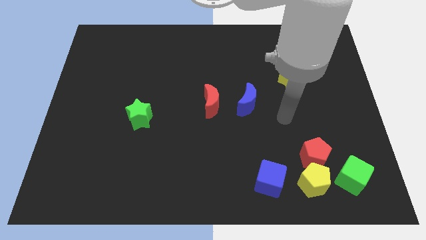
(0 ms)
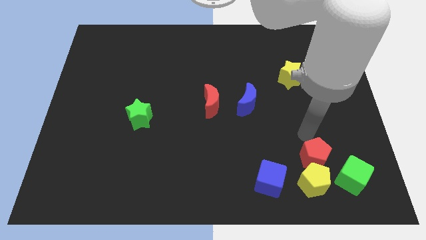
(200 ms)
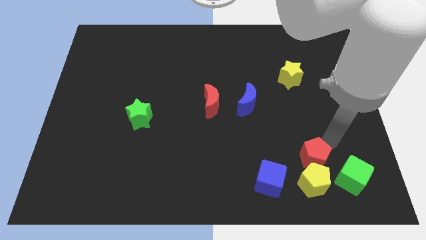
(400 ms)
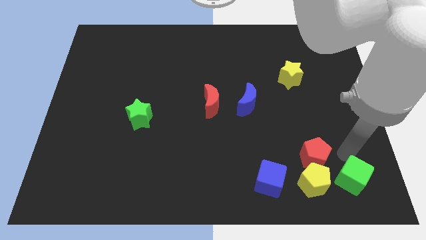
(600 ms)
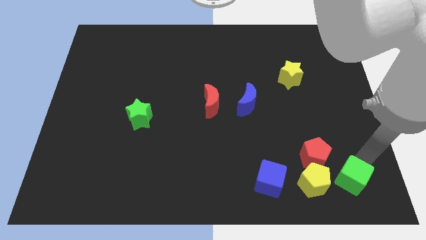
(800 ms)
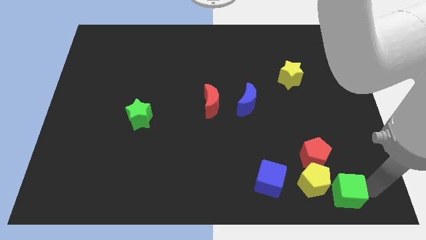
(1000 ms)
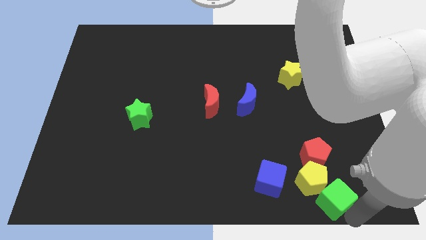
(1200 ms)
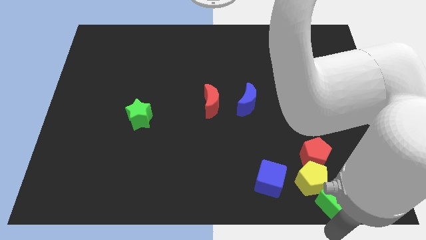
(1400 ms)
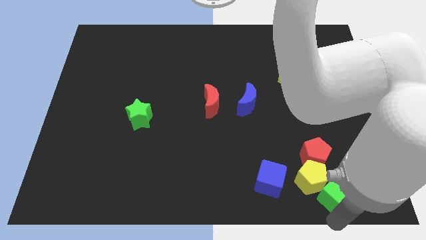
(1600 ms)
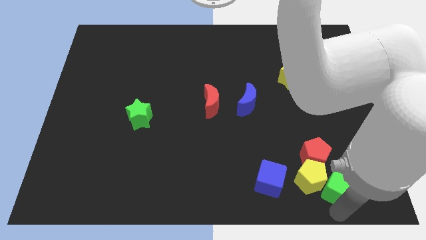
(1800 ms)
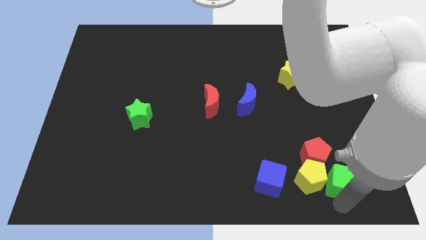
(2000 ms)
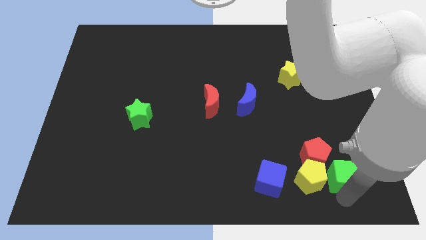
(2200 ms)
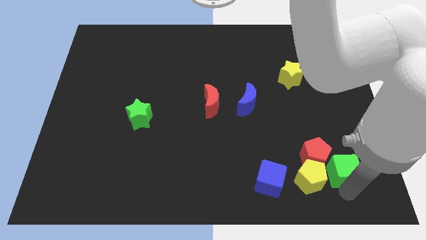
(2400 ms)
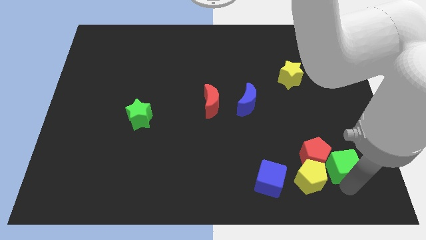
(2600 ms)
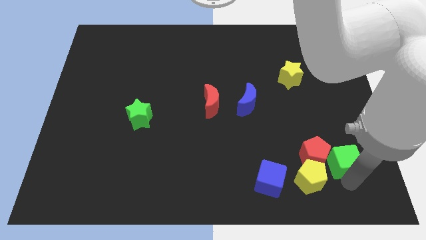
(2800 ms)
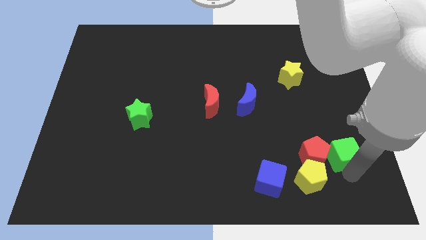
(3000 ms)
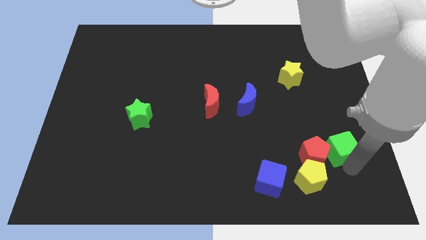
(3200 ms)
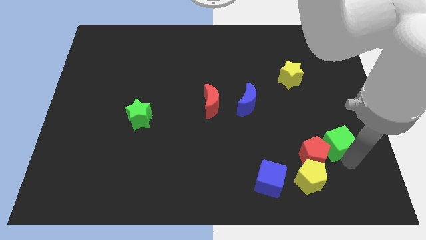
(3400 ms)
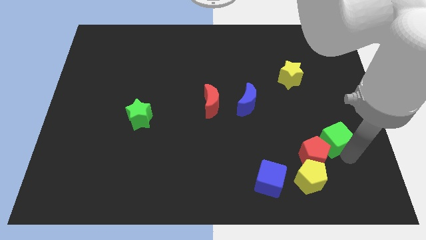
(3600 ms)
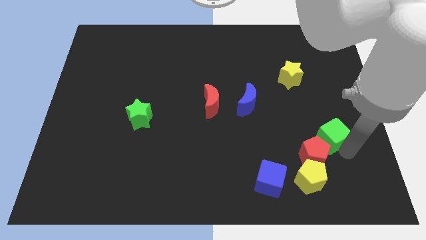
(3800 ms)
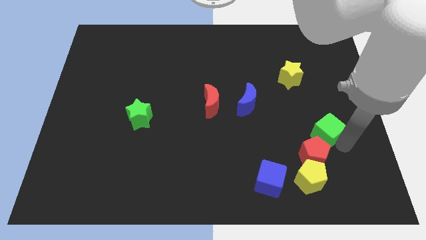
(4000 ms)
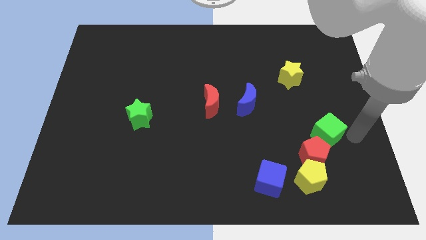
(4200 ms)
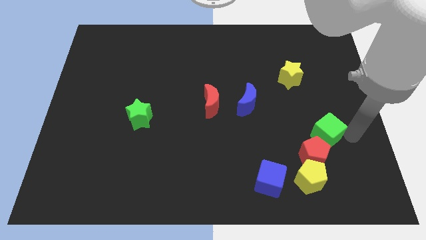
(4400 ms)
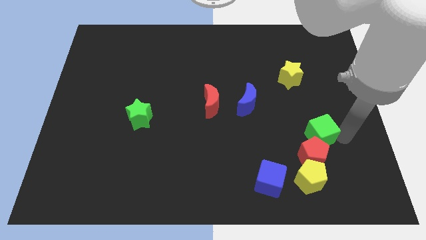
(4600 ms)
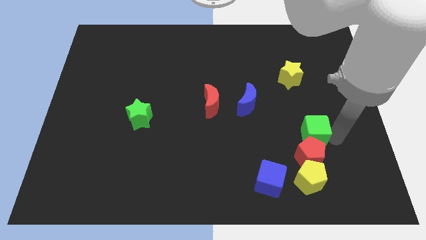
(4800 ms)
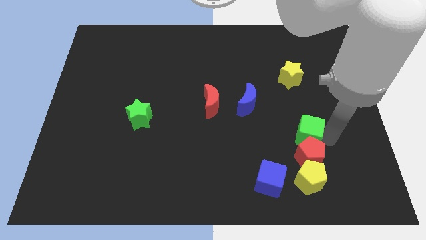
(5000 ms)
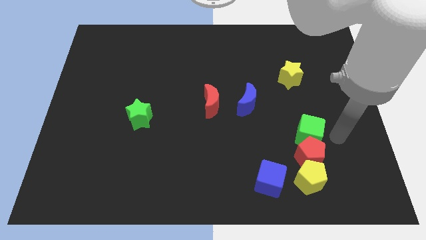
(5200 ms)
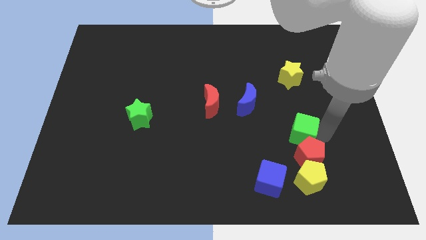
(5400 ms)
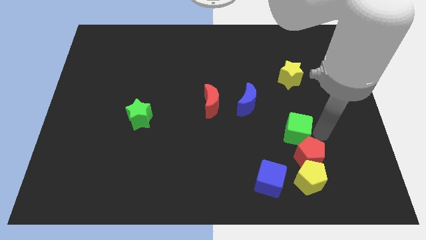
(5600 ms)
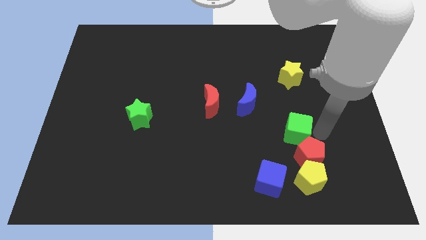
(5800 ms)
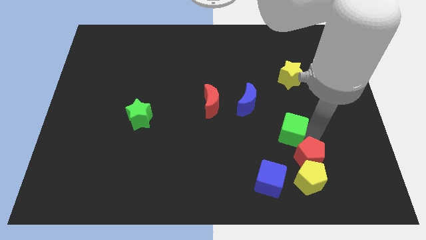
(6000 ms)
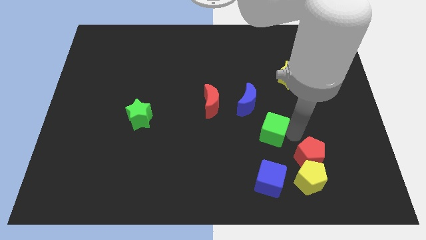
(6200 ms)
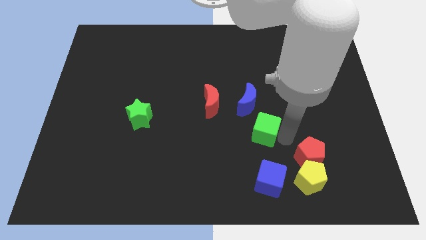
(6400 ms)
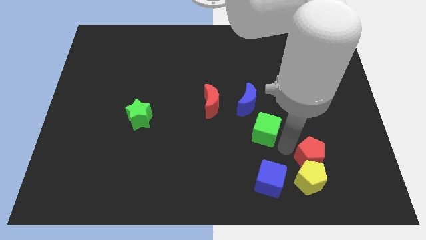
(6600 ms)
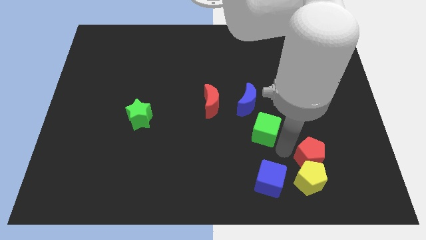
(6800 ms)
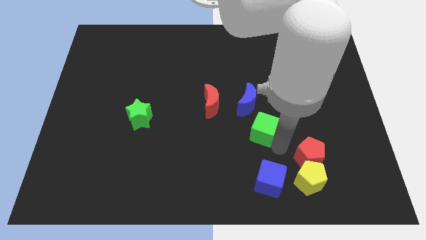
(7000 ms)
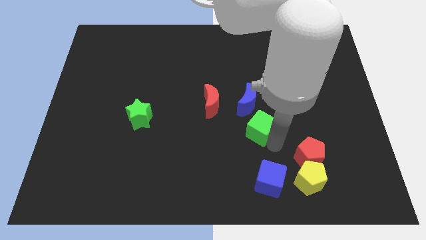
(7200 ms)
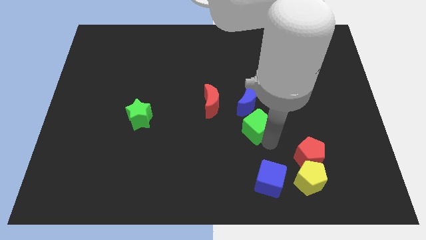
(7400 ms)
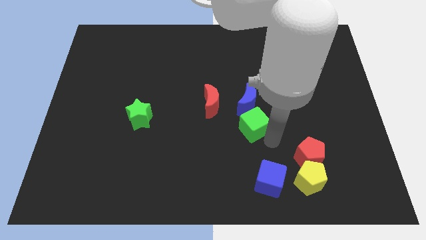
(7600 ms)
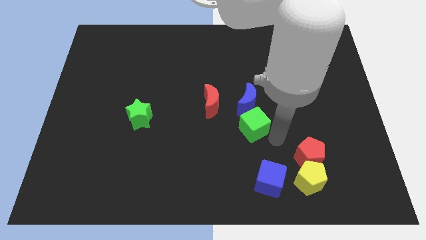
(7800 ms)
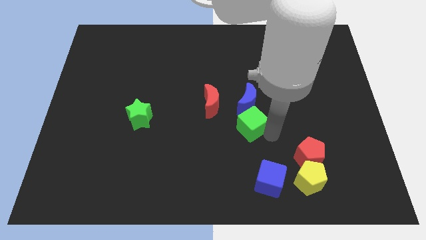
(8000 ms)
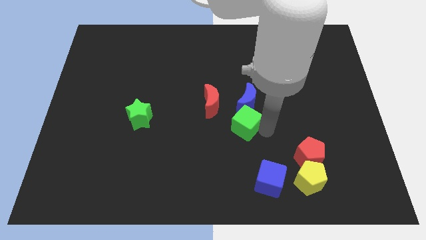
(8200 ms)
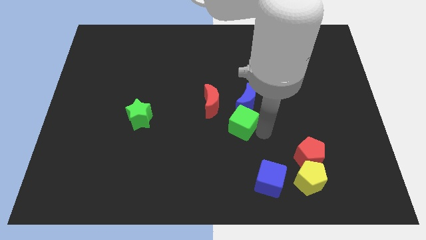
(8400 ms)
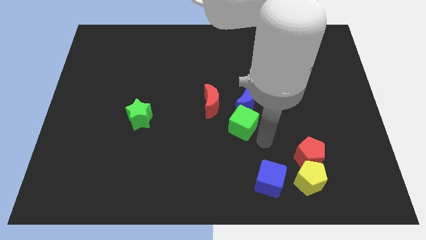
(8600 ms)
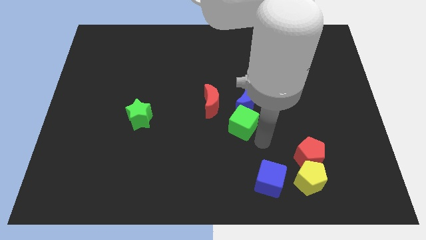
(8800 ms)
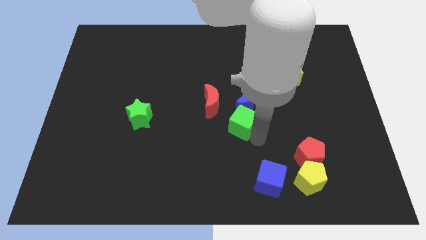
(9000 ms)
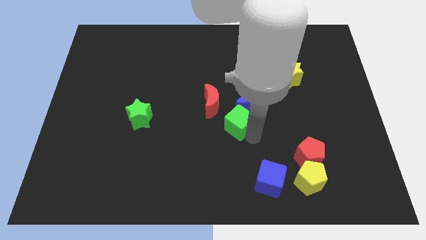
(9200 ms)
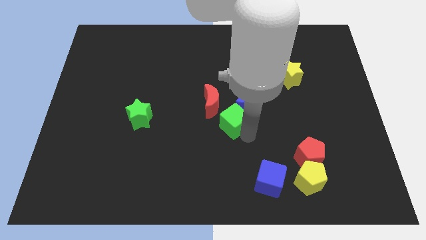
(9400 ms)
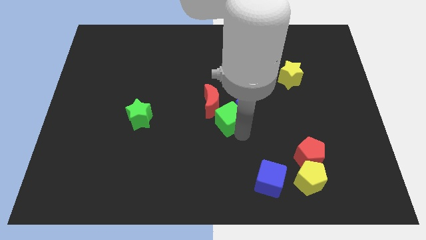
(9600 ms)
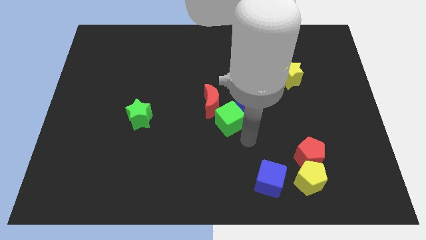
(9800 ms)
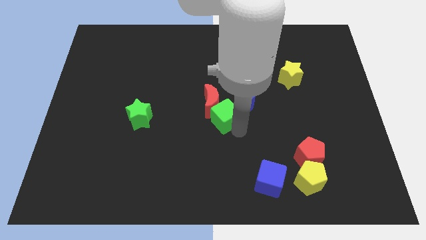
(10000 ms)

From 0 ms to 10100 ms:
push the green cube close to the red moon

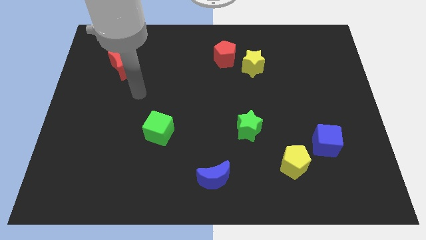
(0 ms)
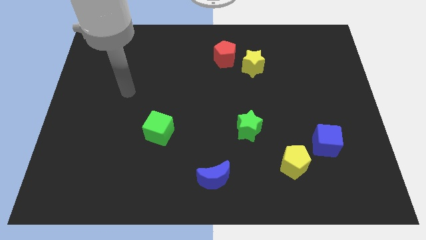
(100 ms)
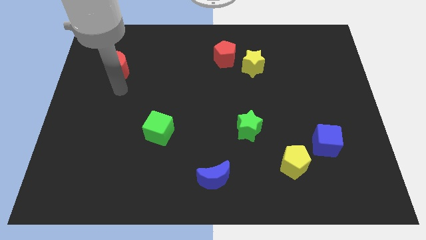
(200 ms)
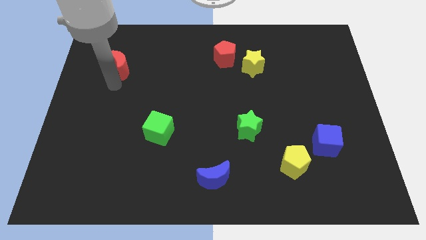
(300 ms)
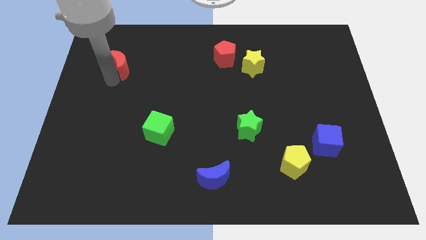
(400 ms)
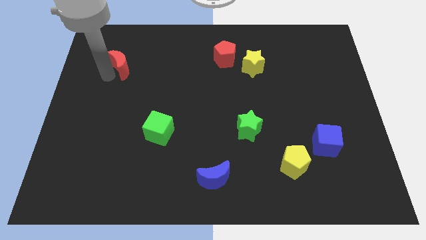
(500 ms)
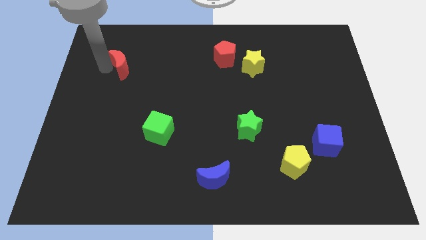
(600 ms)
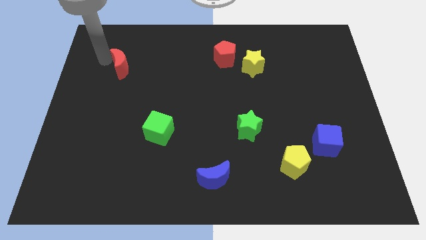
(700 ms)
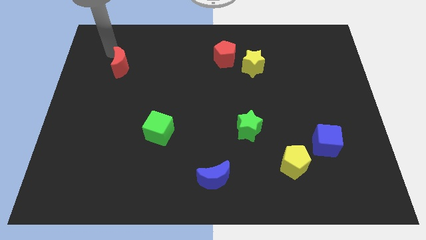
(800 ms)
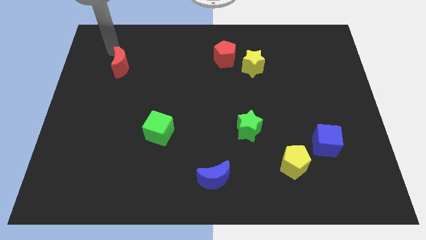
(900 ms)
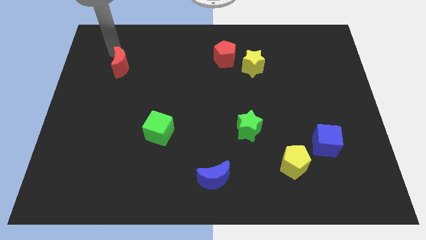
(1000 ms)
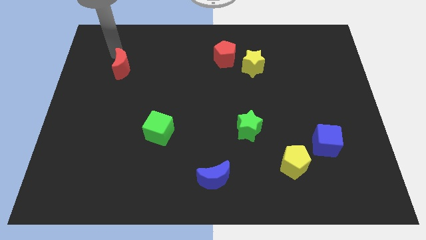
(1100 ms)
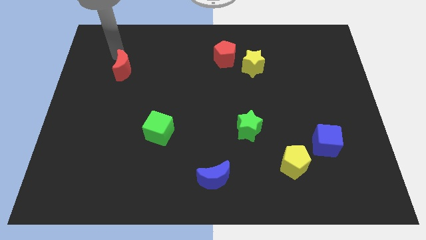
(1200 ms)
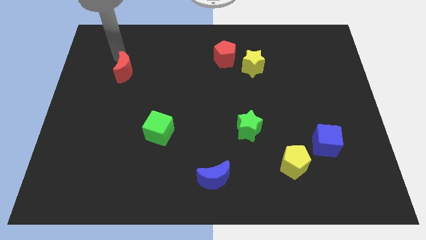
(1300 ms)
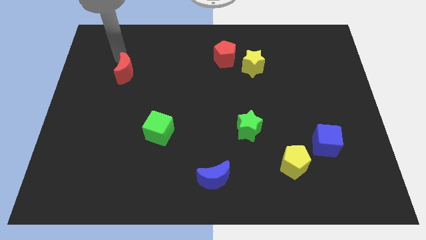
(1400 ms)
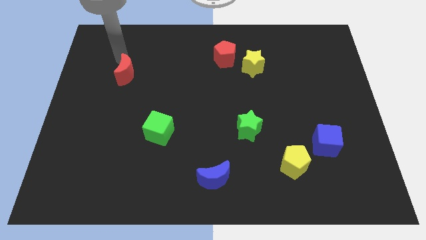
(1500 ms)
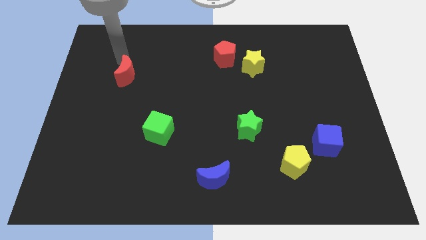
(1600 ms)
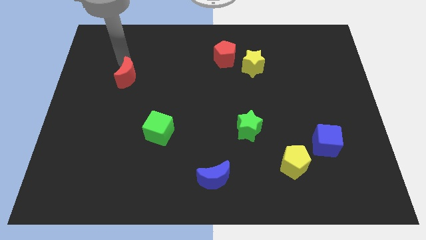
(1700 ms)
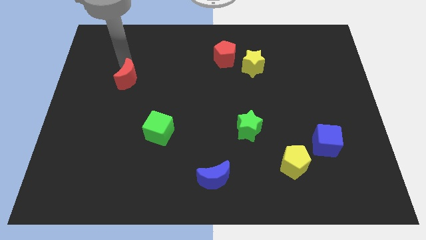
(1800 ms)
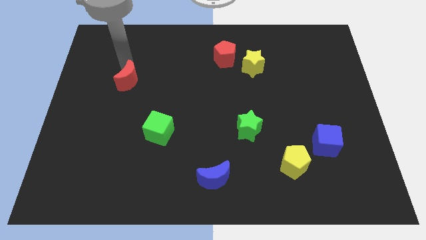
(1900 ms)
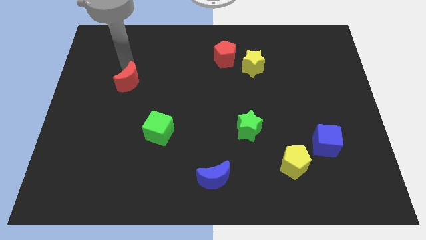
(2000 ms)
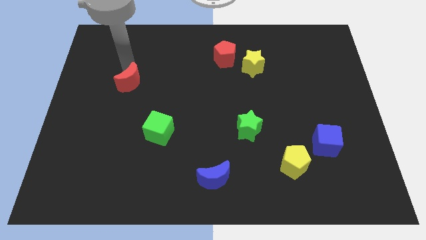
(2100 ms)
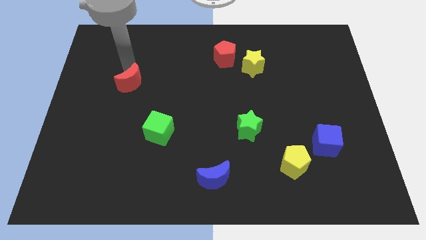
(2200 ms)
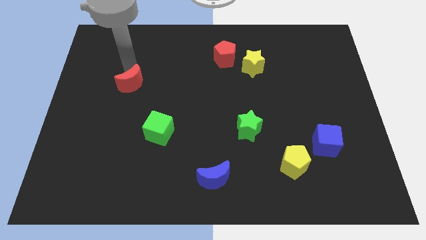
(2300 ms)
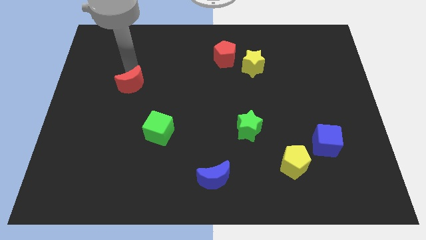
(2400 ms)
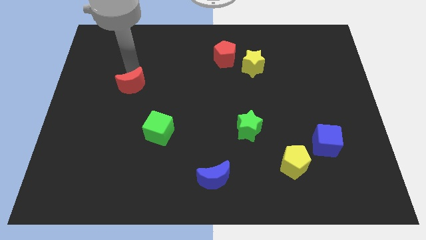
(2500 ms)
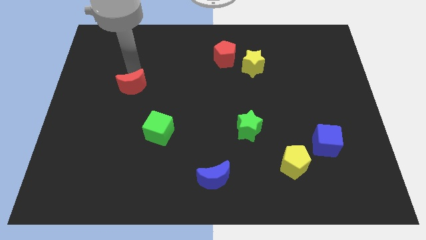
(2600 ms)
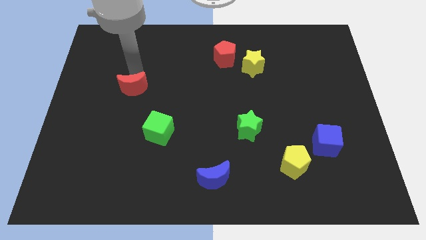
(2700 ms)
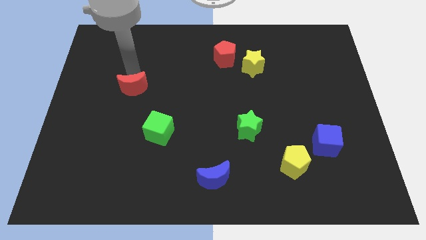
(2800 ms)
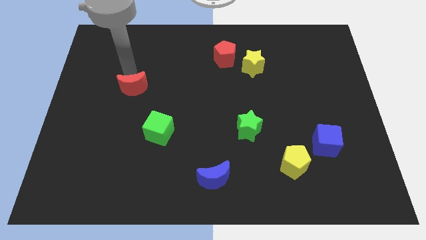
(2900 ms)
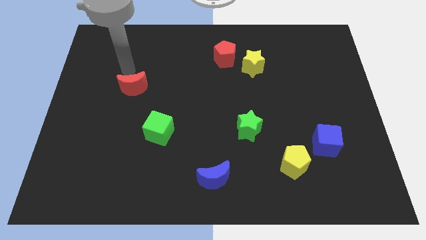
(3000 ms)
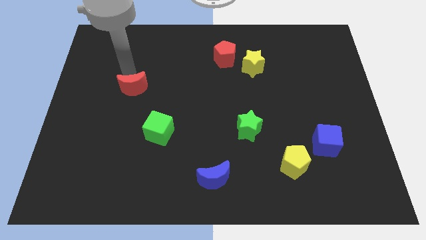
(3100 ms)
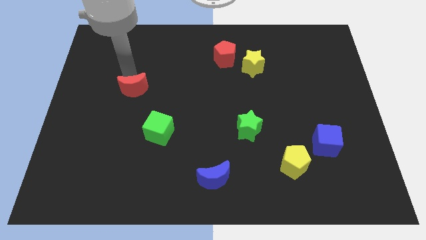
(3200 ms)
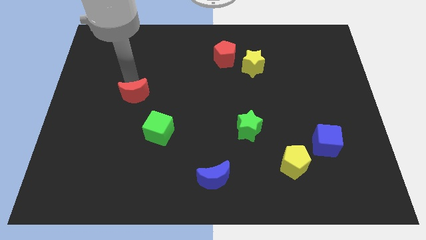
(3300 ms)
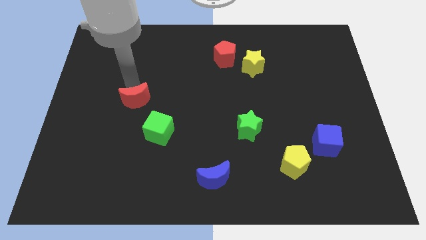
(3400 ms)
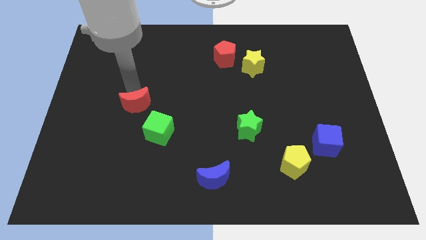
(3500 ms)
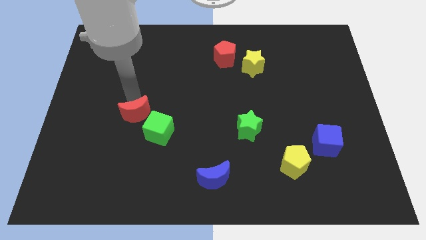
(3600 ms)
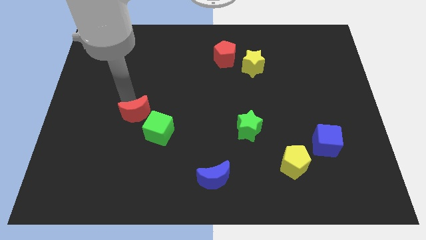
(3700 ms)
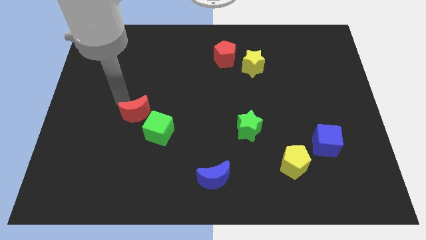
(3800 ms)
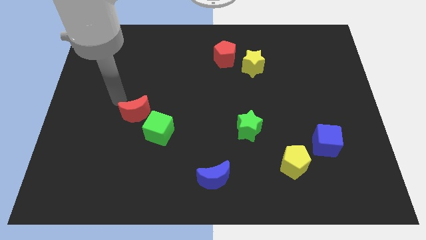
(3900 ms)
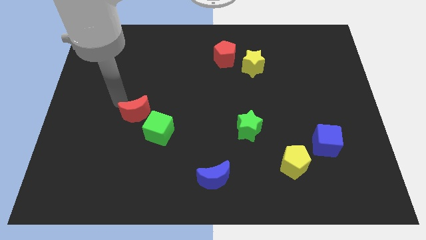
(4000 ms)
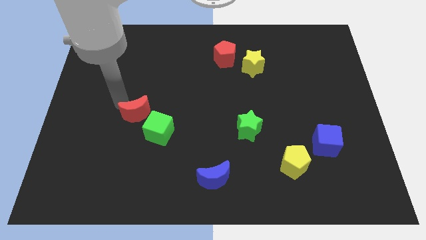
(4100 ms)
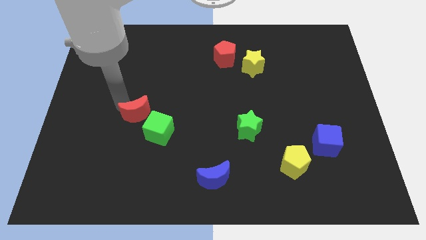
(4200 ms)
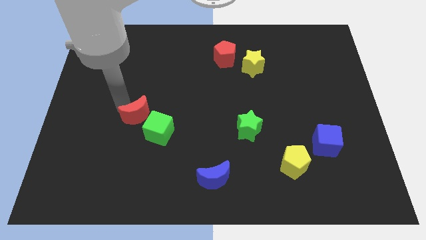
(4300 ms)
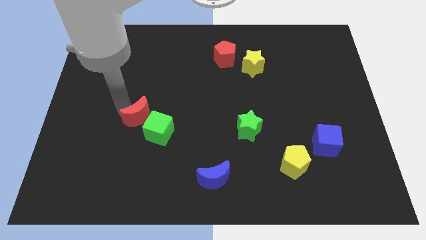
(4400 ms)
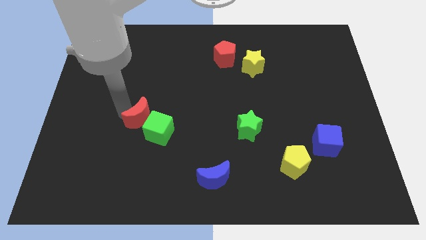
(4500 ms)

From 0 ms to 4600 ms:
push the red moon next to the green cube
